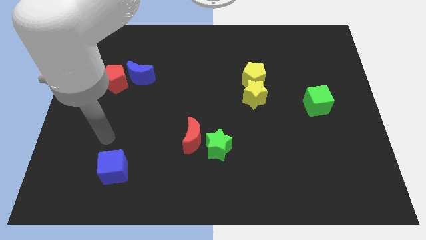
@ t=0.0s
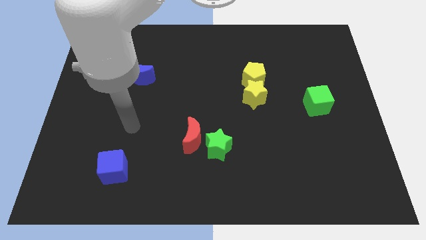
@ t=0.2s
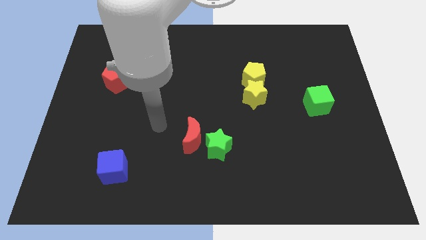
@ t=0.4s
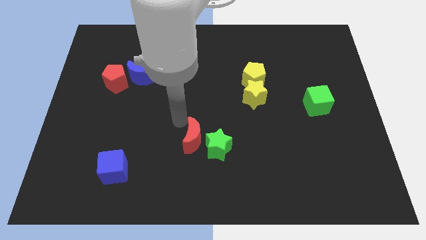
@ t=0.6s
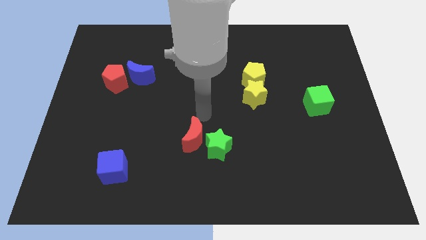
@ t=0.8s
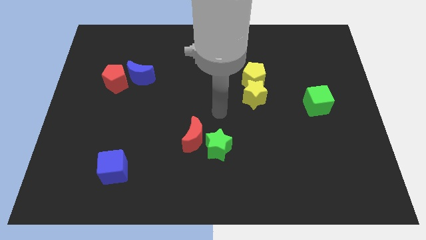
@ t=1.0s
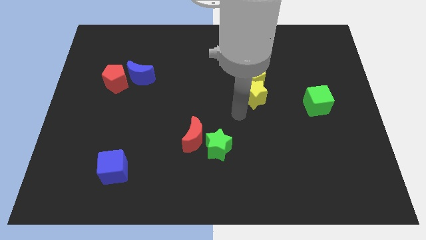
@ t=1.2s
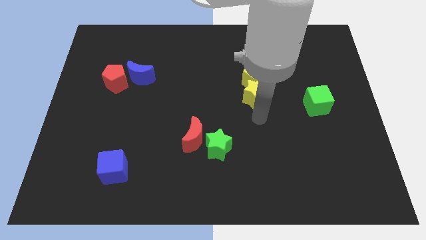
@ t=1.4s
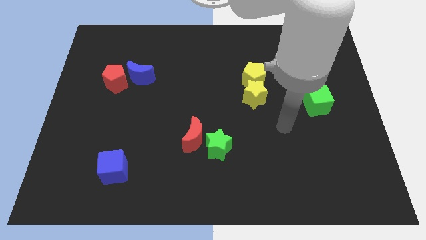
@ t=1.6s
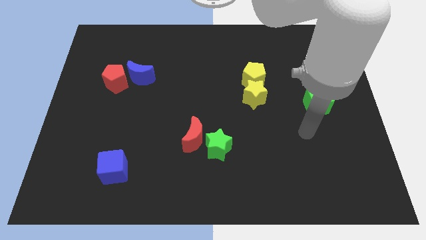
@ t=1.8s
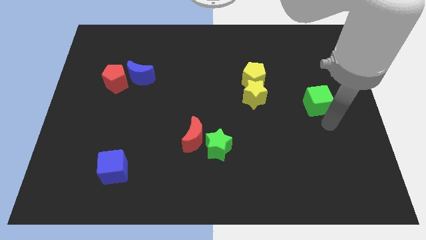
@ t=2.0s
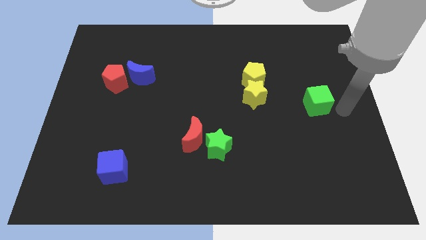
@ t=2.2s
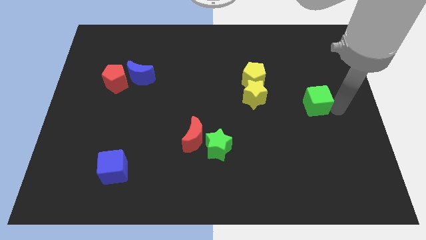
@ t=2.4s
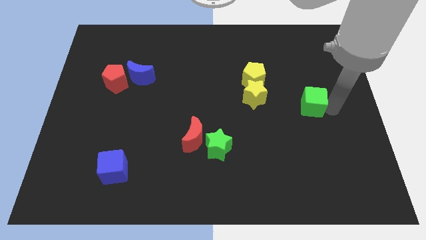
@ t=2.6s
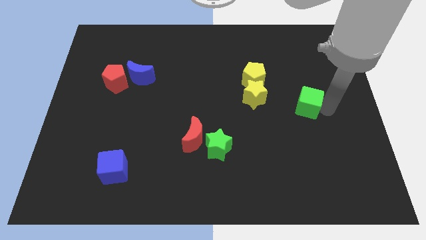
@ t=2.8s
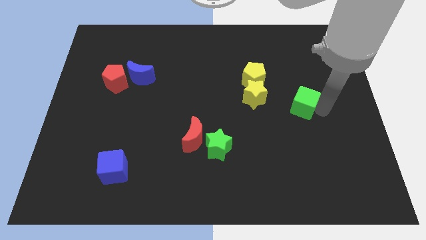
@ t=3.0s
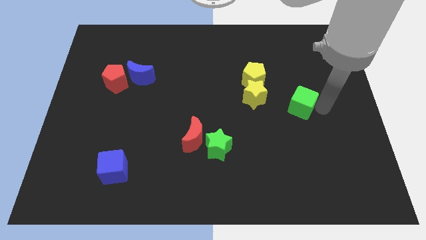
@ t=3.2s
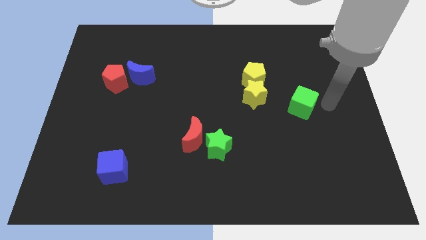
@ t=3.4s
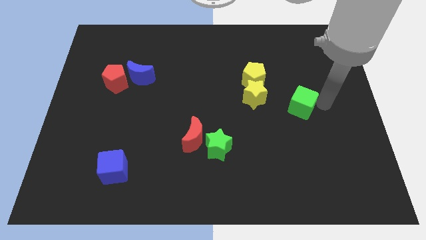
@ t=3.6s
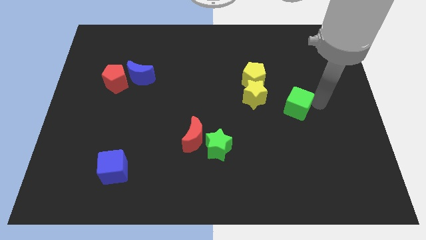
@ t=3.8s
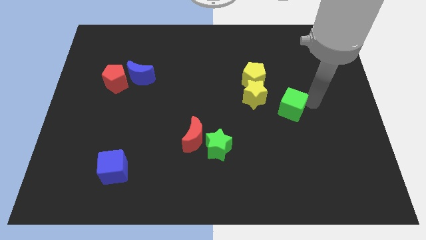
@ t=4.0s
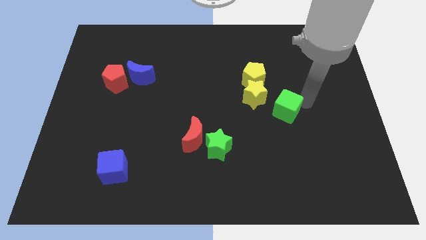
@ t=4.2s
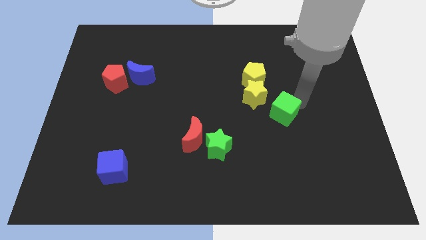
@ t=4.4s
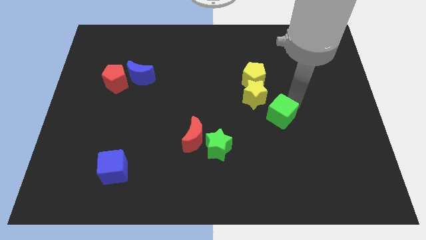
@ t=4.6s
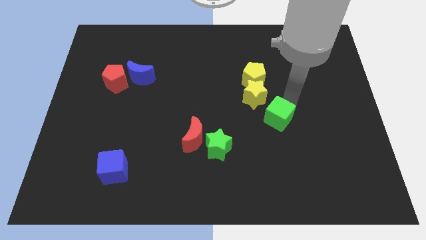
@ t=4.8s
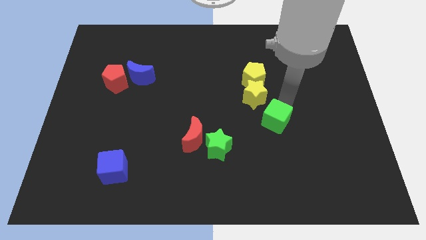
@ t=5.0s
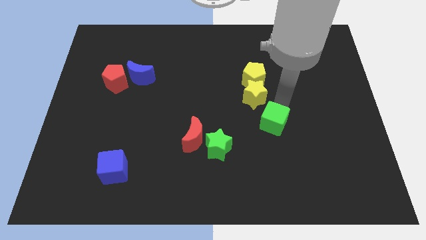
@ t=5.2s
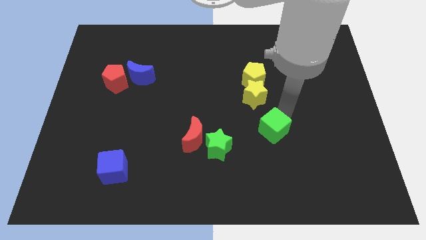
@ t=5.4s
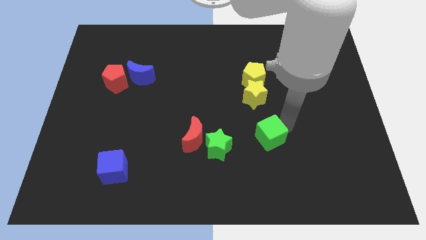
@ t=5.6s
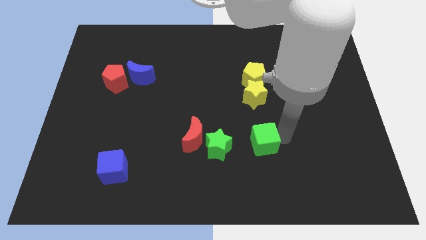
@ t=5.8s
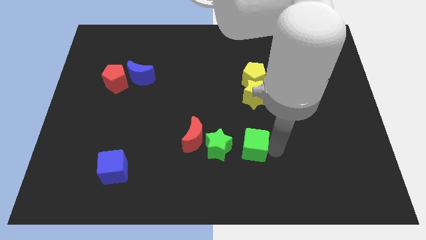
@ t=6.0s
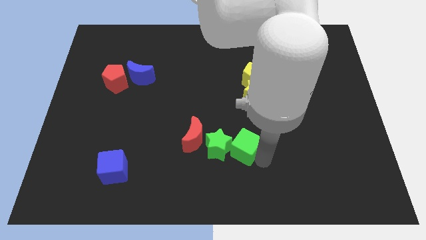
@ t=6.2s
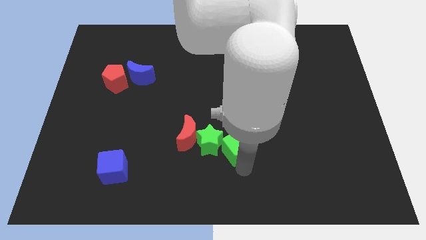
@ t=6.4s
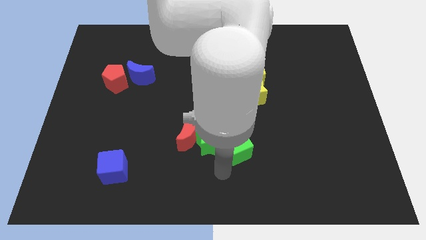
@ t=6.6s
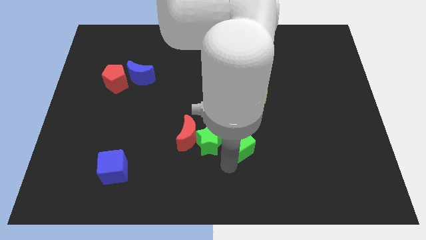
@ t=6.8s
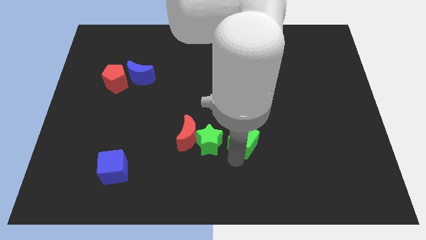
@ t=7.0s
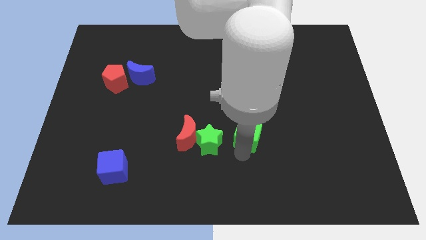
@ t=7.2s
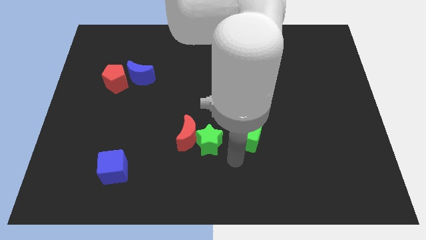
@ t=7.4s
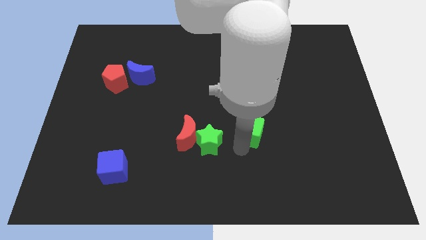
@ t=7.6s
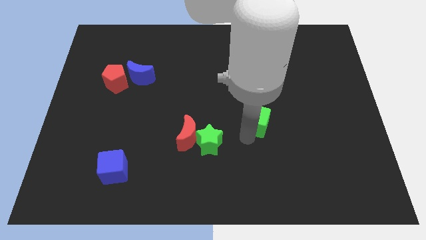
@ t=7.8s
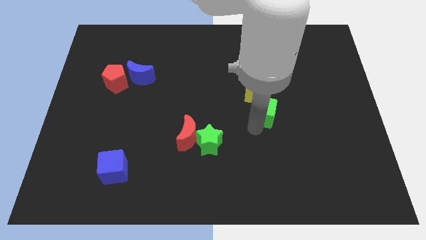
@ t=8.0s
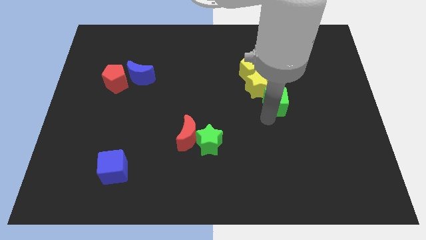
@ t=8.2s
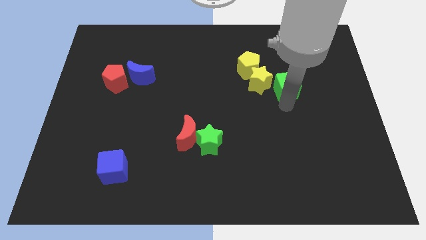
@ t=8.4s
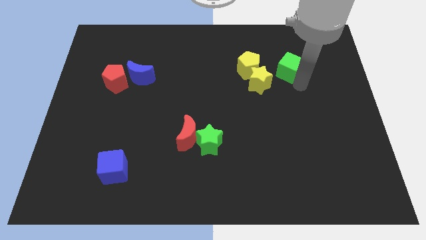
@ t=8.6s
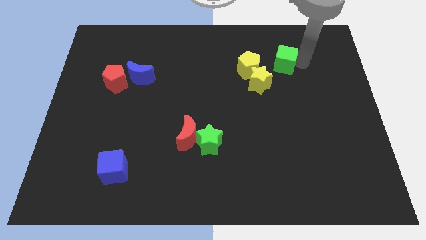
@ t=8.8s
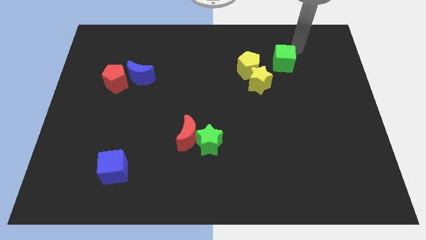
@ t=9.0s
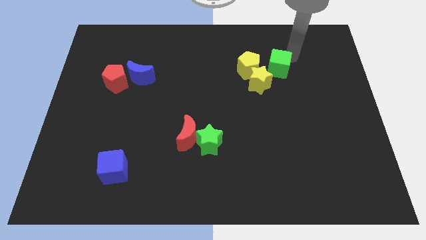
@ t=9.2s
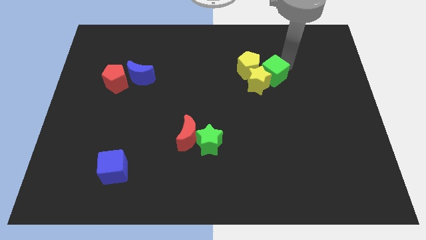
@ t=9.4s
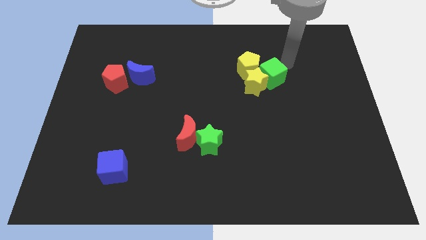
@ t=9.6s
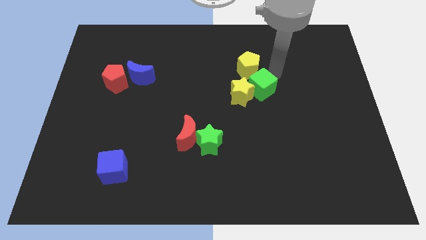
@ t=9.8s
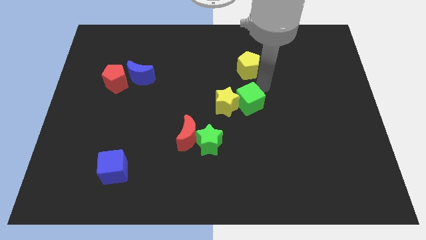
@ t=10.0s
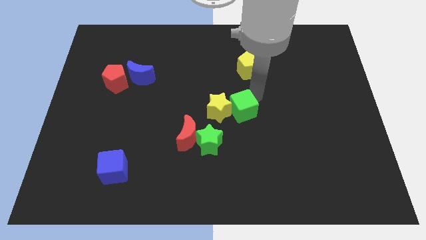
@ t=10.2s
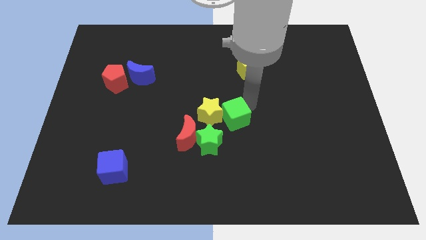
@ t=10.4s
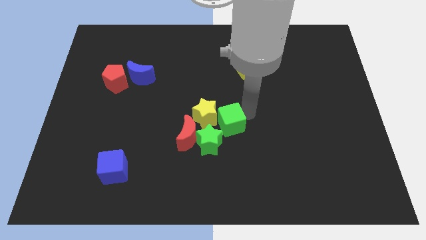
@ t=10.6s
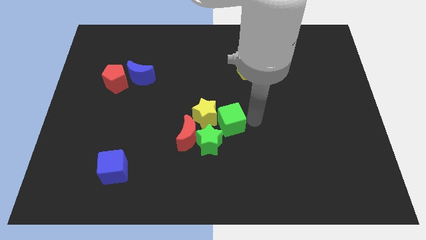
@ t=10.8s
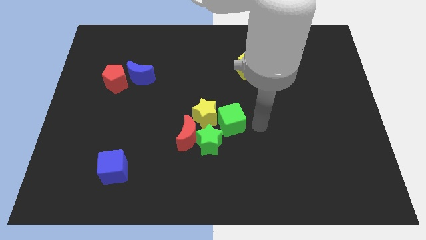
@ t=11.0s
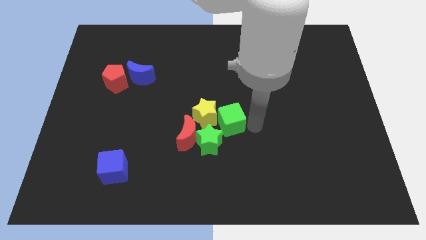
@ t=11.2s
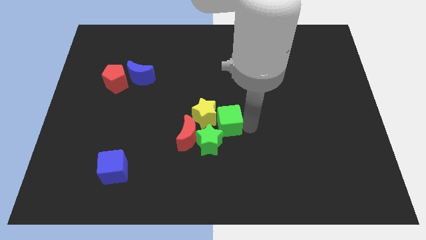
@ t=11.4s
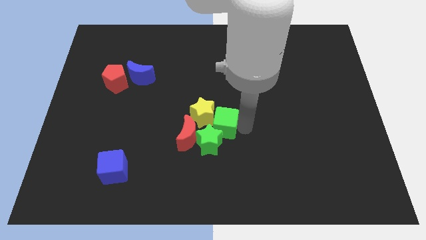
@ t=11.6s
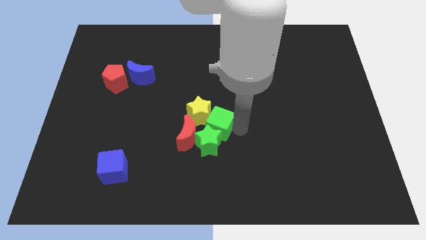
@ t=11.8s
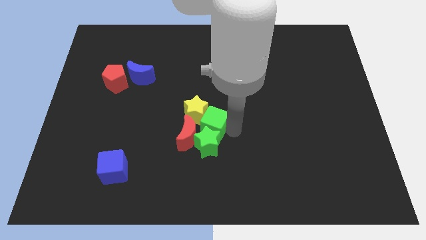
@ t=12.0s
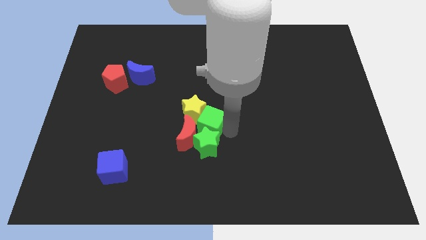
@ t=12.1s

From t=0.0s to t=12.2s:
move the green cube to the red moon

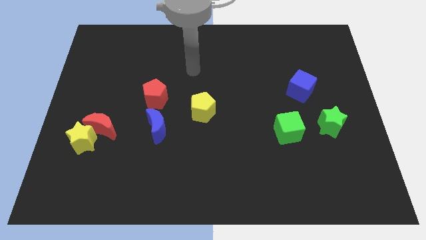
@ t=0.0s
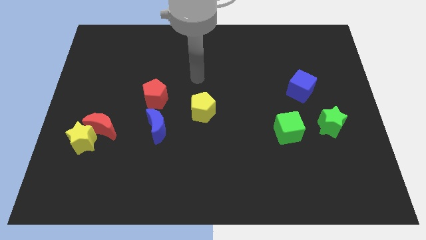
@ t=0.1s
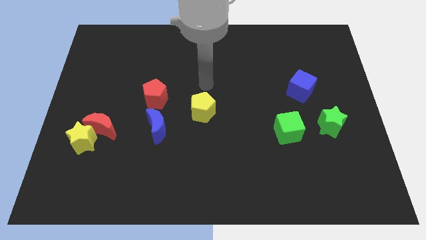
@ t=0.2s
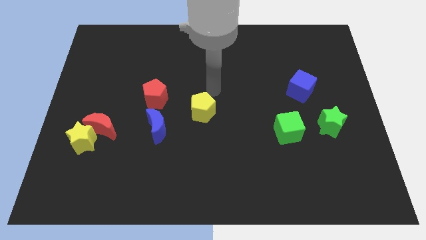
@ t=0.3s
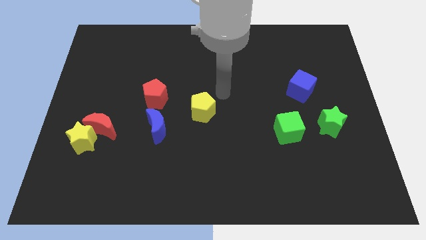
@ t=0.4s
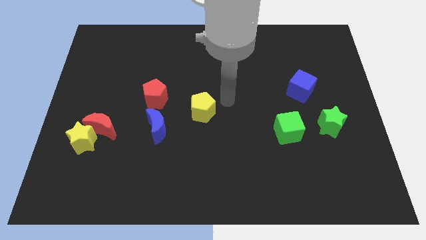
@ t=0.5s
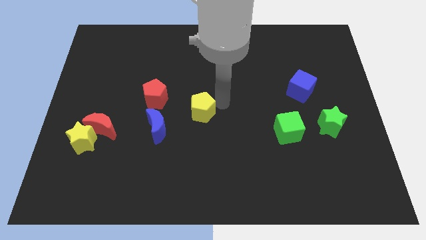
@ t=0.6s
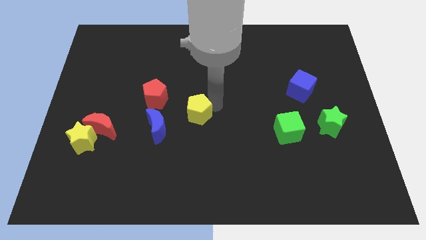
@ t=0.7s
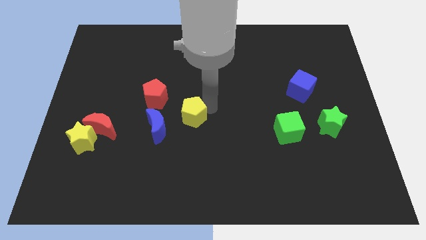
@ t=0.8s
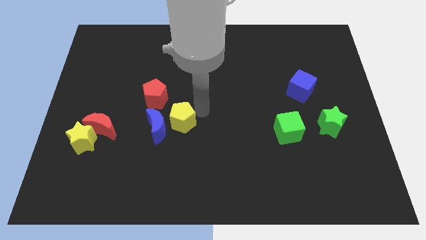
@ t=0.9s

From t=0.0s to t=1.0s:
push the yellow pentagon towards the blue moon
